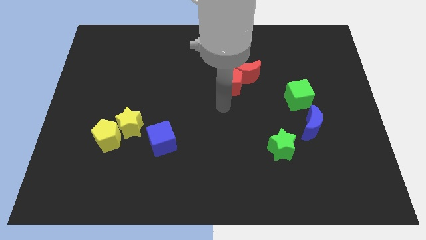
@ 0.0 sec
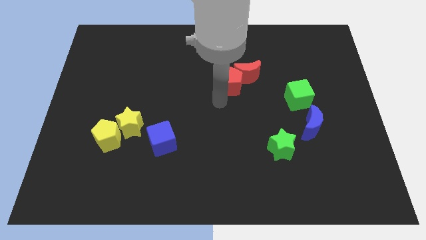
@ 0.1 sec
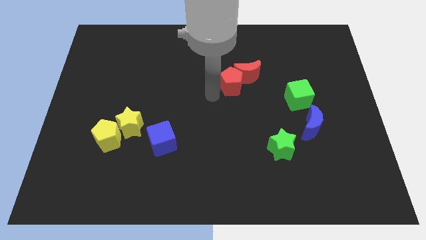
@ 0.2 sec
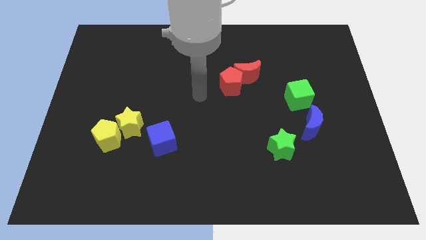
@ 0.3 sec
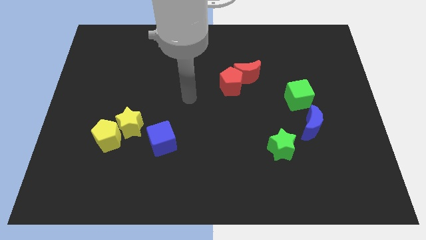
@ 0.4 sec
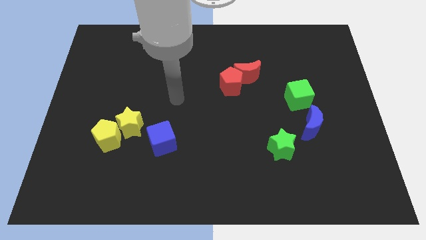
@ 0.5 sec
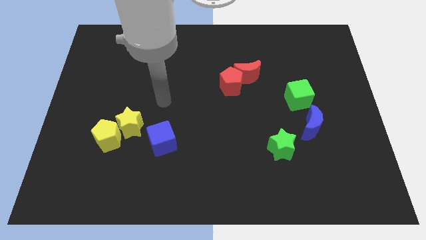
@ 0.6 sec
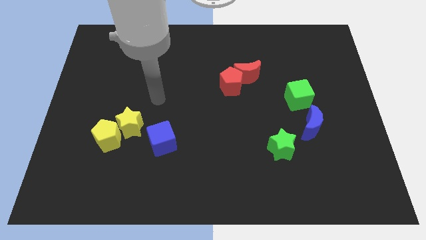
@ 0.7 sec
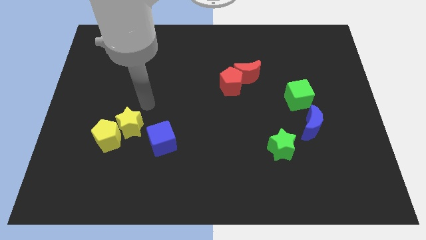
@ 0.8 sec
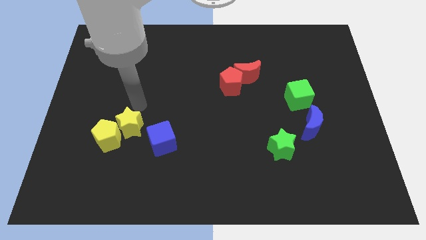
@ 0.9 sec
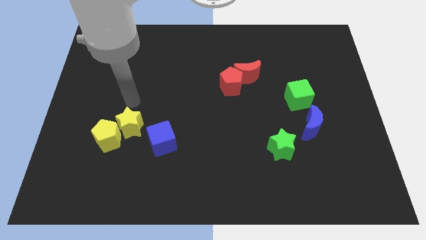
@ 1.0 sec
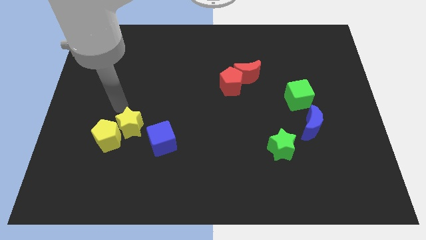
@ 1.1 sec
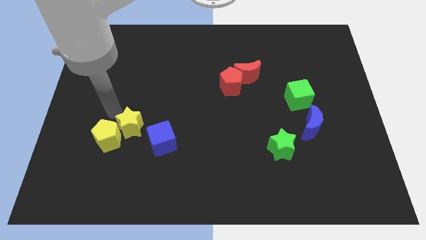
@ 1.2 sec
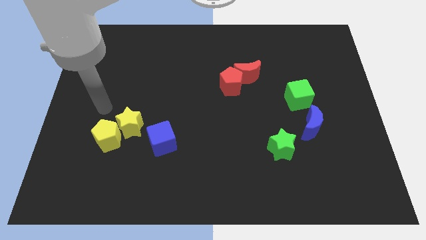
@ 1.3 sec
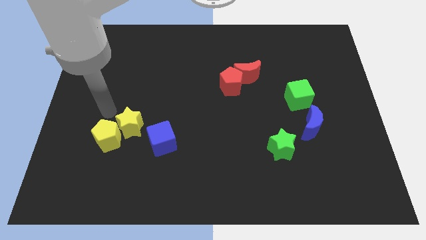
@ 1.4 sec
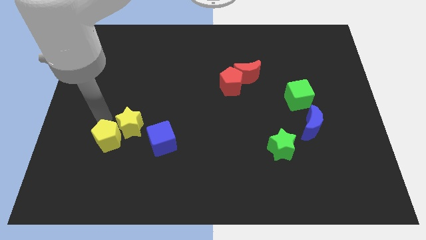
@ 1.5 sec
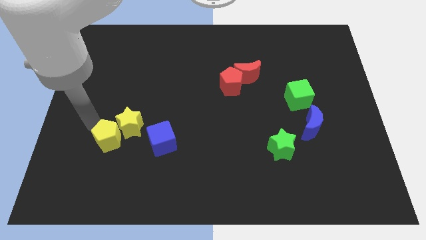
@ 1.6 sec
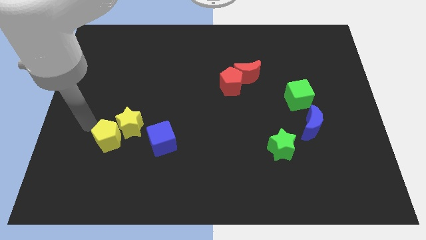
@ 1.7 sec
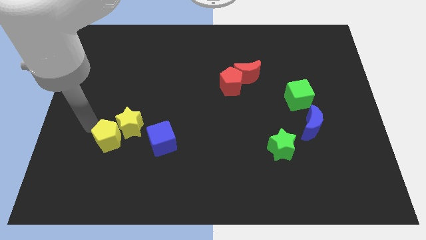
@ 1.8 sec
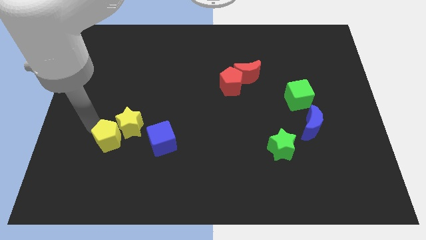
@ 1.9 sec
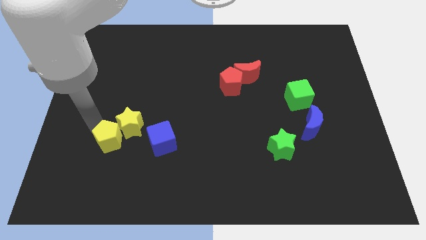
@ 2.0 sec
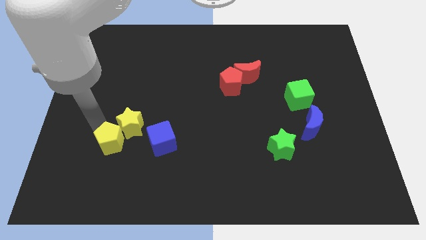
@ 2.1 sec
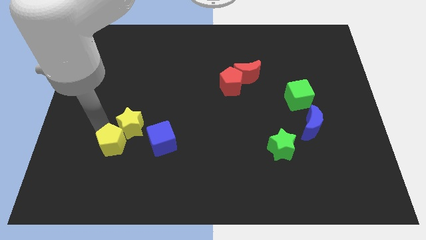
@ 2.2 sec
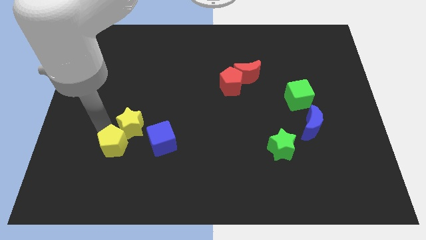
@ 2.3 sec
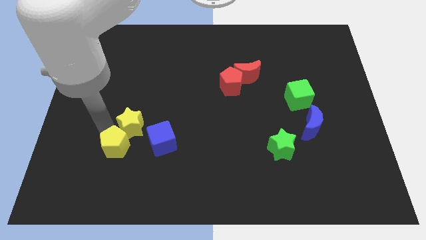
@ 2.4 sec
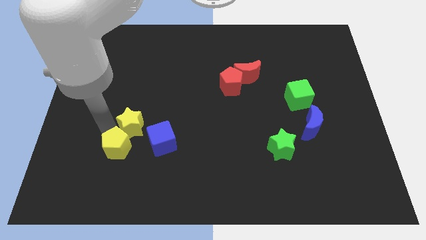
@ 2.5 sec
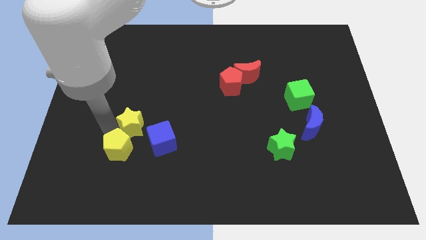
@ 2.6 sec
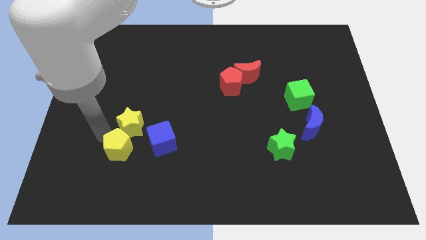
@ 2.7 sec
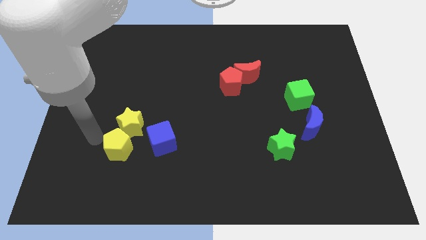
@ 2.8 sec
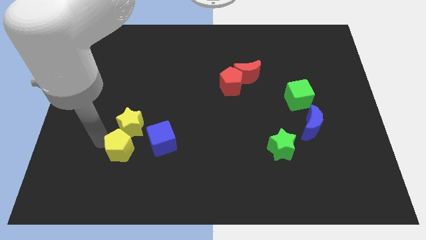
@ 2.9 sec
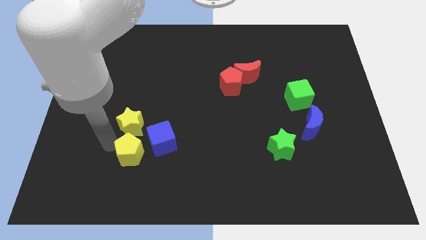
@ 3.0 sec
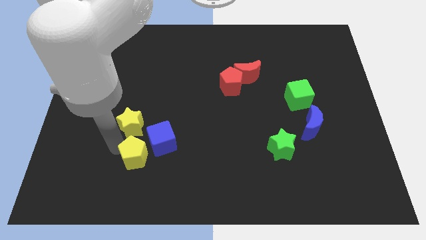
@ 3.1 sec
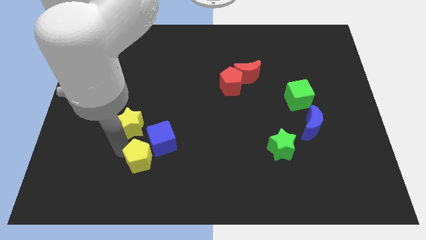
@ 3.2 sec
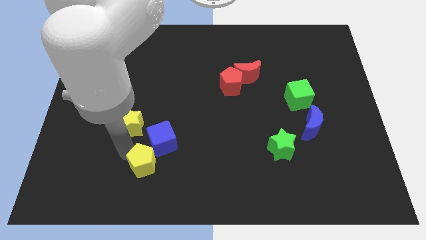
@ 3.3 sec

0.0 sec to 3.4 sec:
move the yellow pentagon to the right a bit

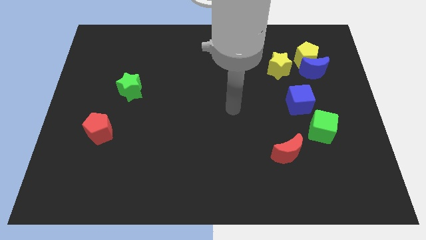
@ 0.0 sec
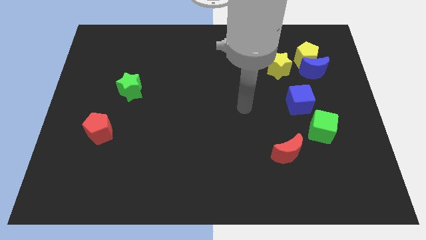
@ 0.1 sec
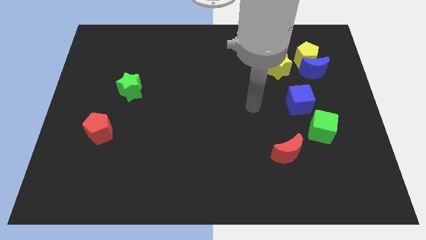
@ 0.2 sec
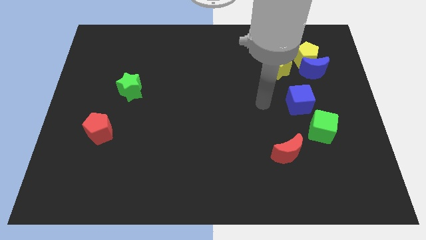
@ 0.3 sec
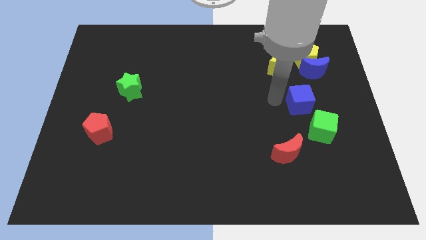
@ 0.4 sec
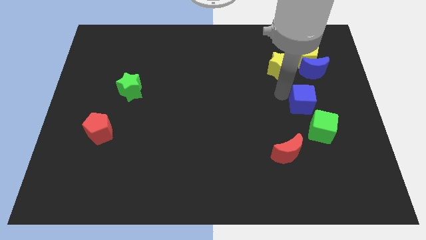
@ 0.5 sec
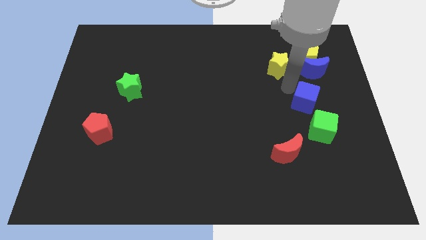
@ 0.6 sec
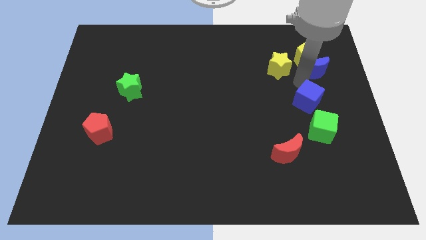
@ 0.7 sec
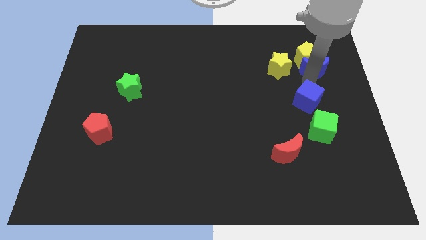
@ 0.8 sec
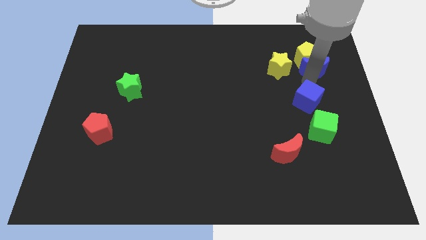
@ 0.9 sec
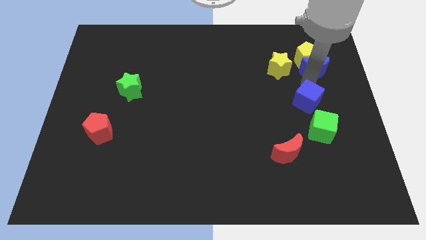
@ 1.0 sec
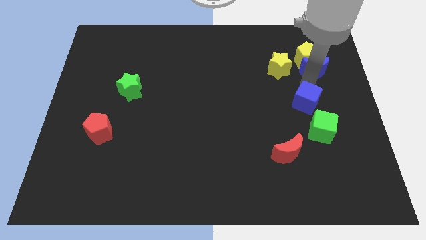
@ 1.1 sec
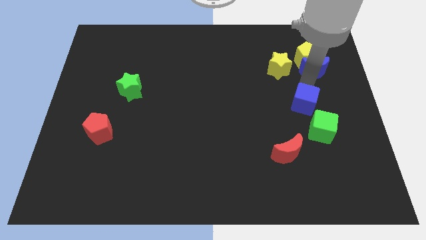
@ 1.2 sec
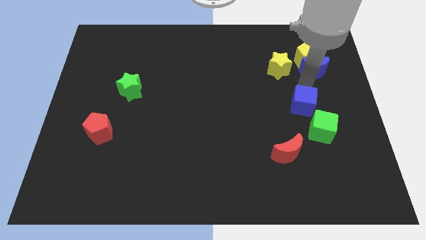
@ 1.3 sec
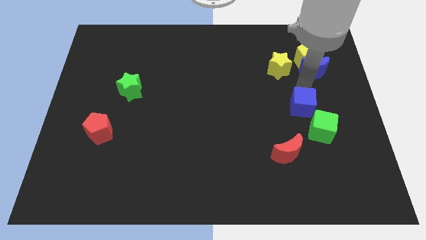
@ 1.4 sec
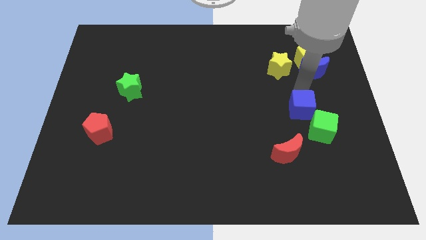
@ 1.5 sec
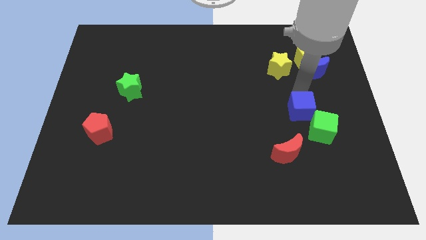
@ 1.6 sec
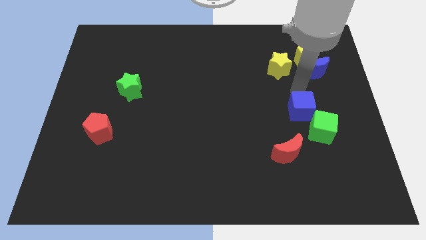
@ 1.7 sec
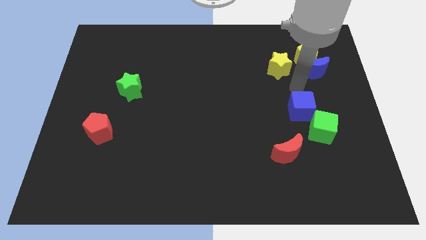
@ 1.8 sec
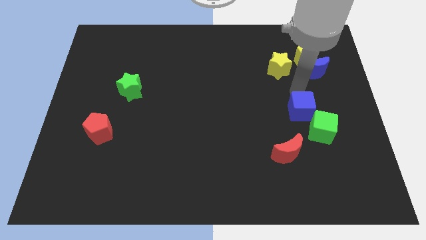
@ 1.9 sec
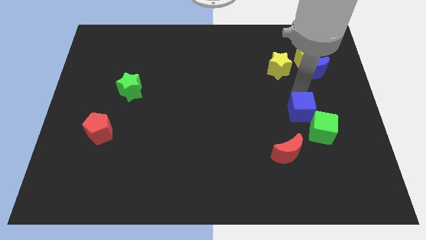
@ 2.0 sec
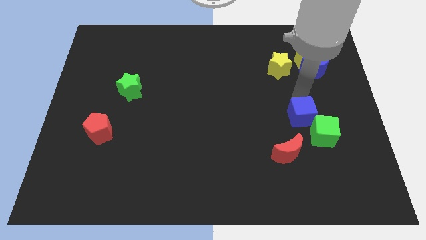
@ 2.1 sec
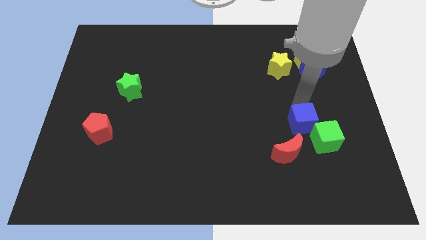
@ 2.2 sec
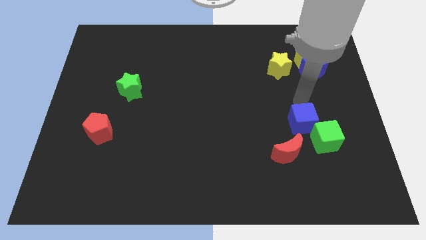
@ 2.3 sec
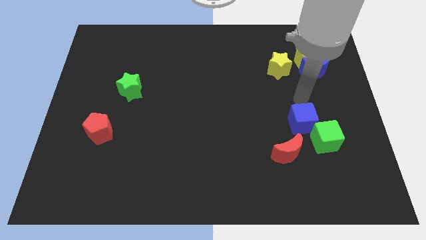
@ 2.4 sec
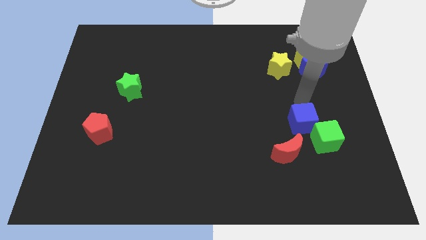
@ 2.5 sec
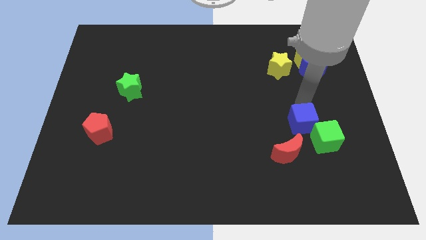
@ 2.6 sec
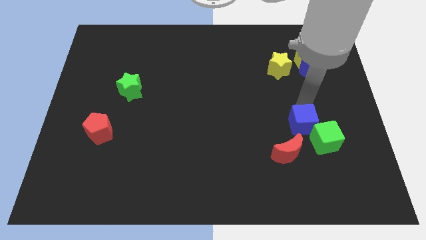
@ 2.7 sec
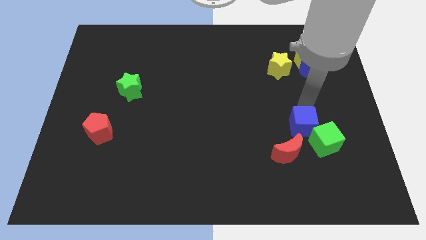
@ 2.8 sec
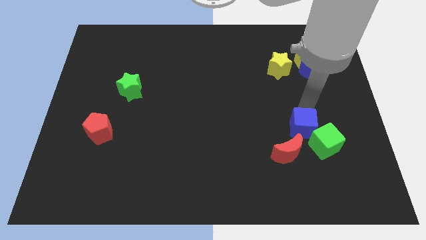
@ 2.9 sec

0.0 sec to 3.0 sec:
move the blue cube somewhat down

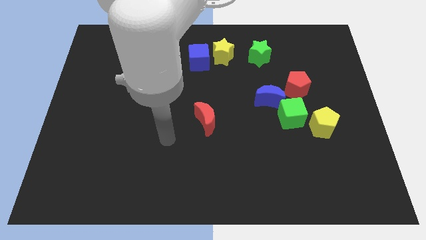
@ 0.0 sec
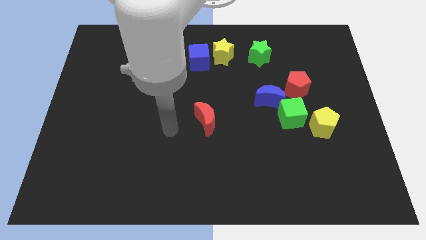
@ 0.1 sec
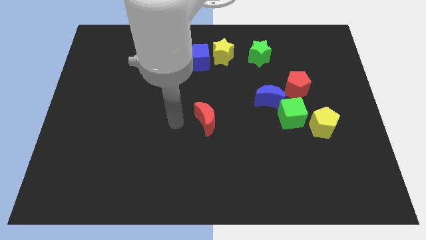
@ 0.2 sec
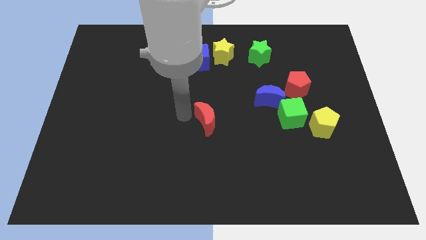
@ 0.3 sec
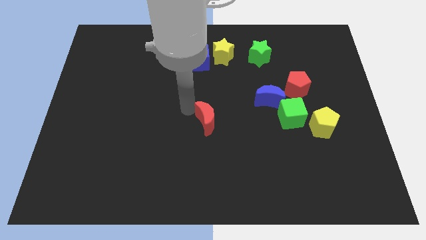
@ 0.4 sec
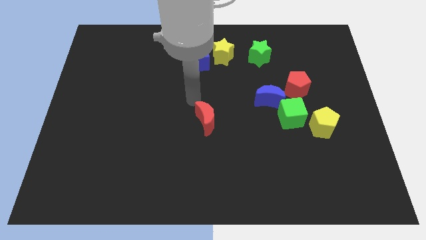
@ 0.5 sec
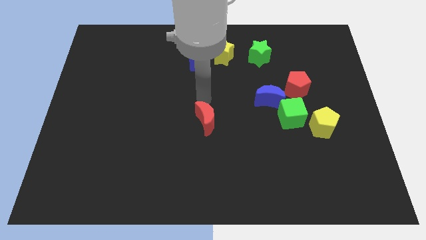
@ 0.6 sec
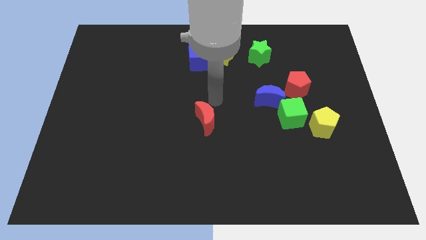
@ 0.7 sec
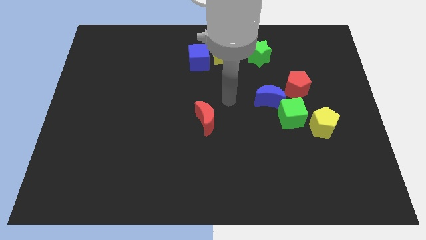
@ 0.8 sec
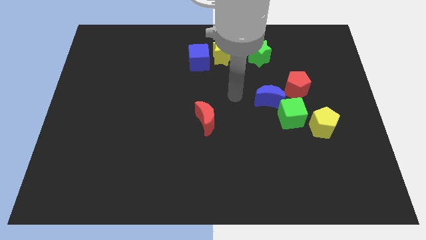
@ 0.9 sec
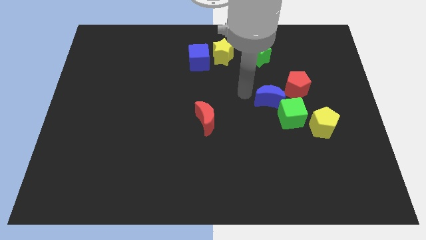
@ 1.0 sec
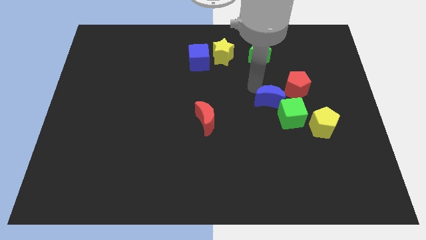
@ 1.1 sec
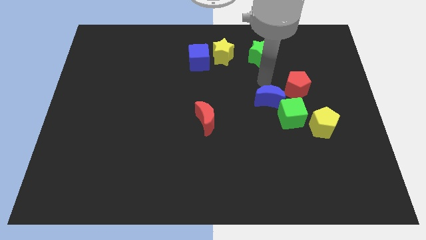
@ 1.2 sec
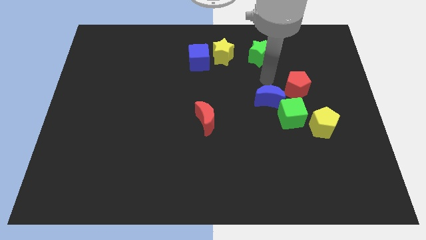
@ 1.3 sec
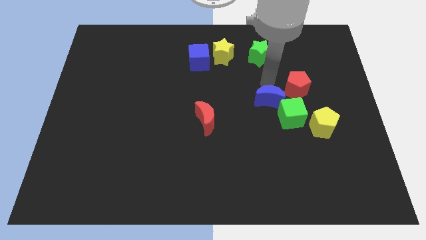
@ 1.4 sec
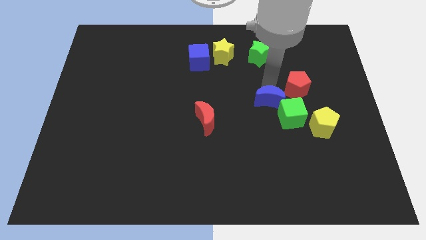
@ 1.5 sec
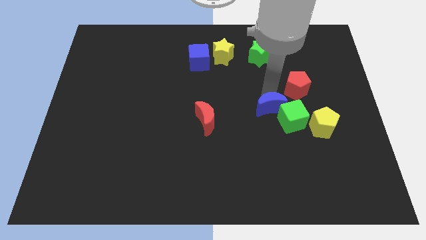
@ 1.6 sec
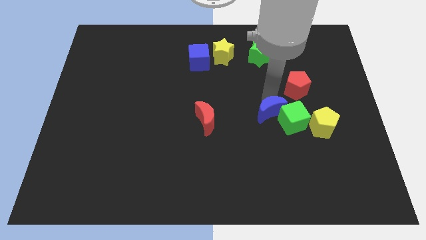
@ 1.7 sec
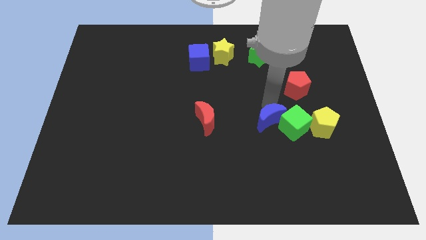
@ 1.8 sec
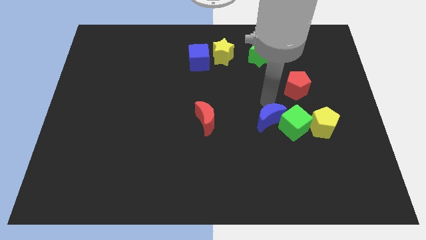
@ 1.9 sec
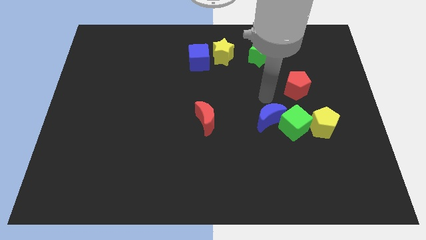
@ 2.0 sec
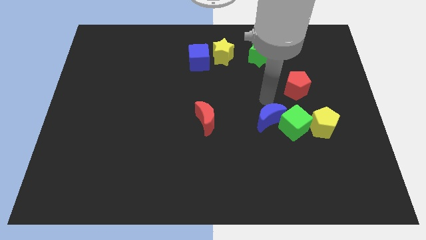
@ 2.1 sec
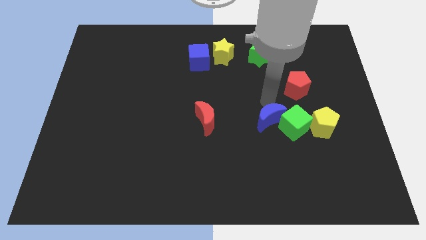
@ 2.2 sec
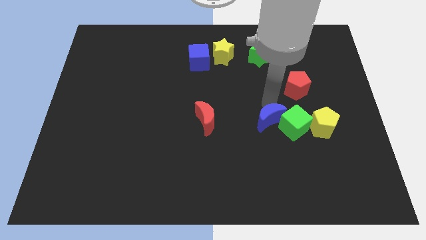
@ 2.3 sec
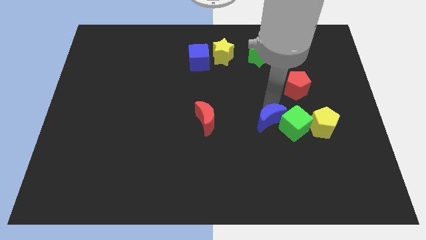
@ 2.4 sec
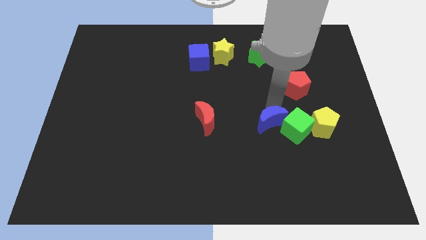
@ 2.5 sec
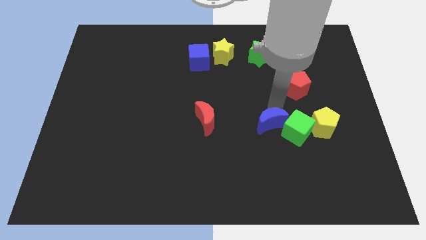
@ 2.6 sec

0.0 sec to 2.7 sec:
slightly push the blue moon down
